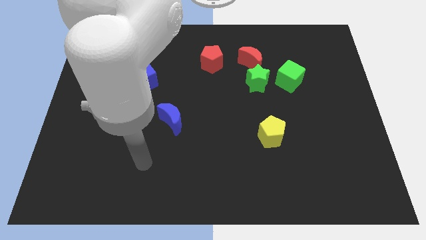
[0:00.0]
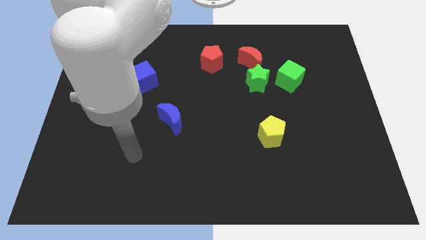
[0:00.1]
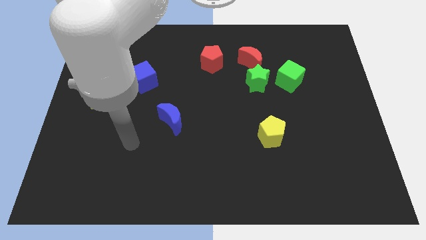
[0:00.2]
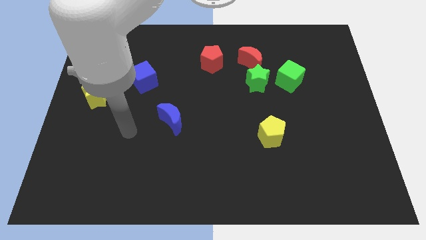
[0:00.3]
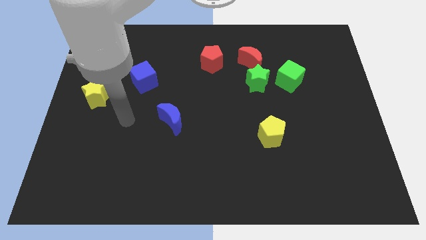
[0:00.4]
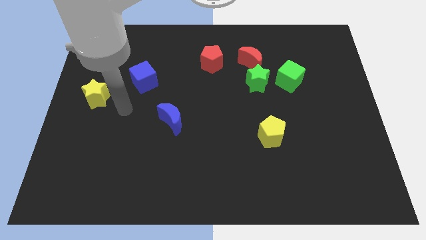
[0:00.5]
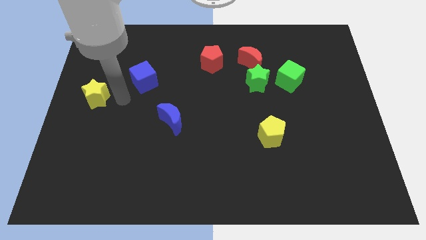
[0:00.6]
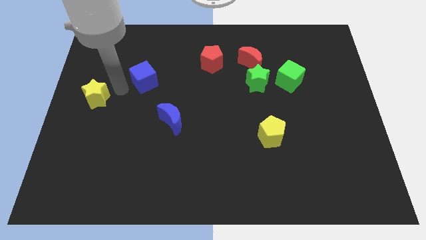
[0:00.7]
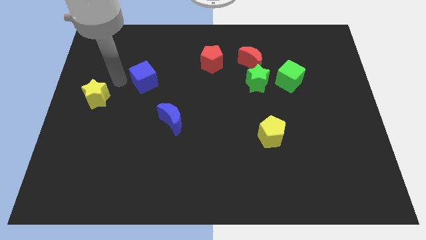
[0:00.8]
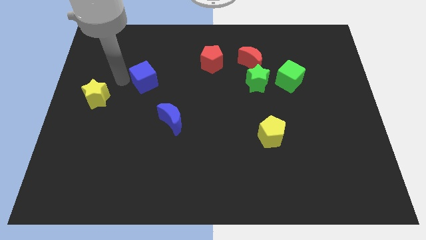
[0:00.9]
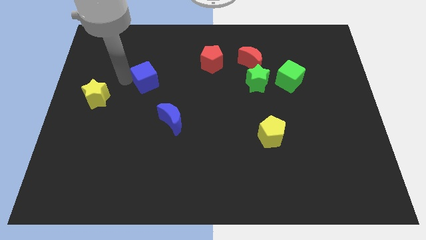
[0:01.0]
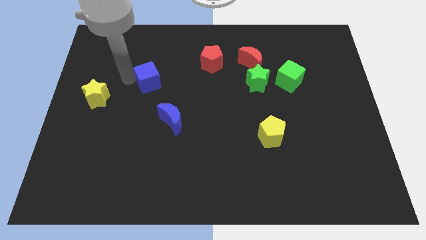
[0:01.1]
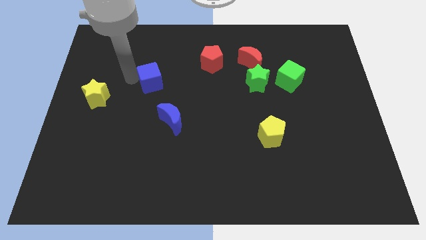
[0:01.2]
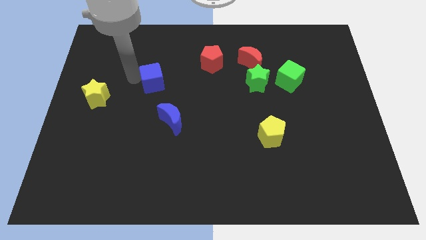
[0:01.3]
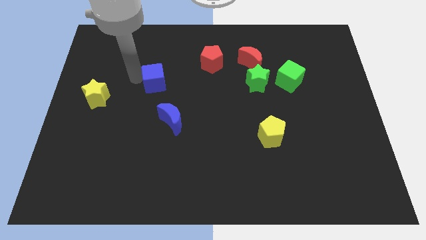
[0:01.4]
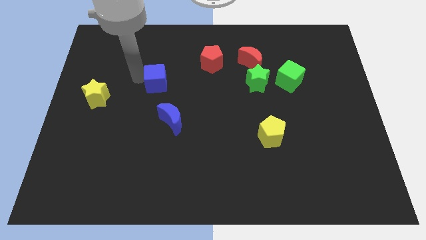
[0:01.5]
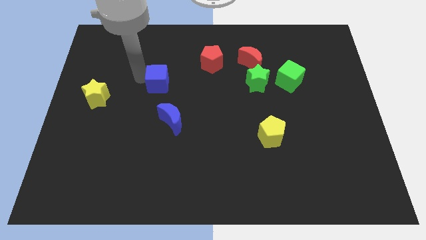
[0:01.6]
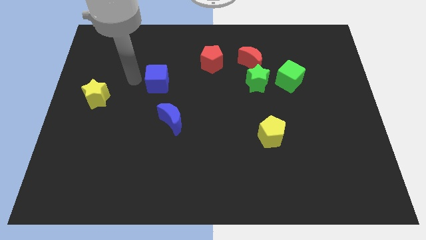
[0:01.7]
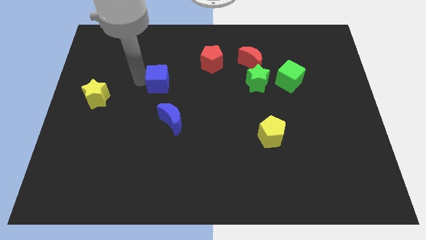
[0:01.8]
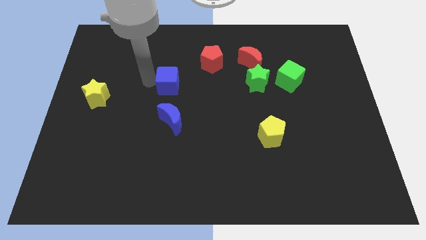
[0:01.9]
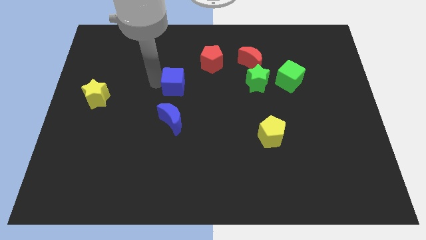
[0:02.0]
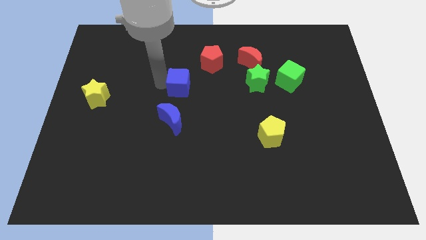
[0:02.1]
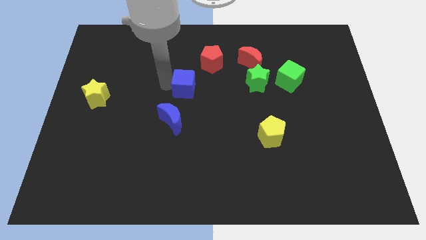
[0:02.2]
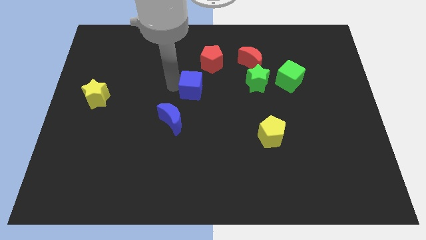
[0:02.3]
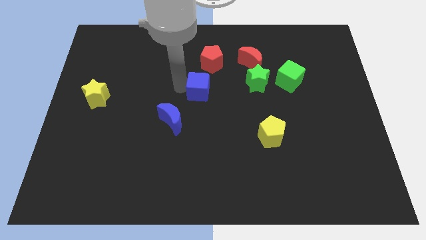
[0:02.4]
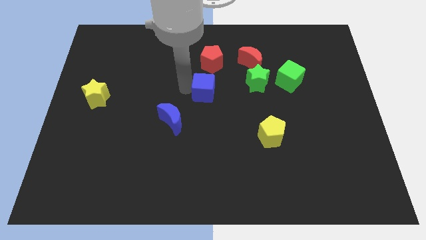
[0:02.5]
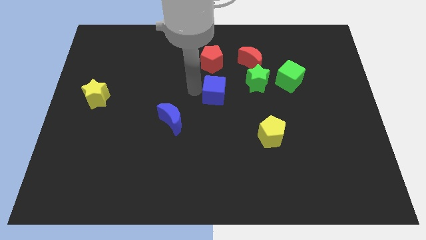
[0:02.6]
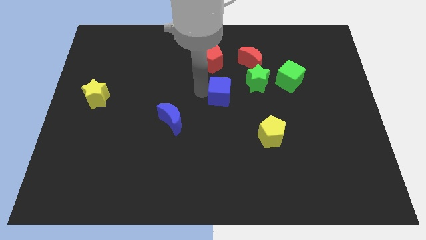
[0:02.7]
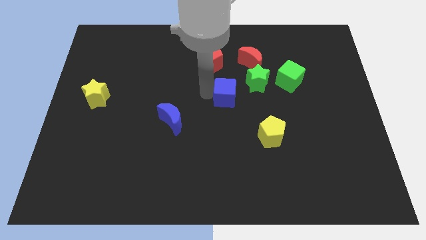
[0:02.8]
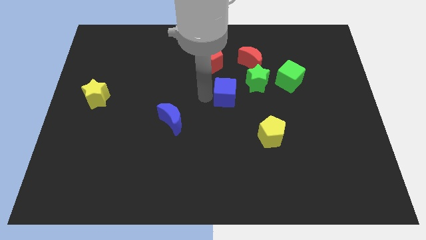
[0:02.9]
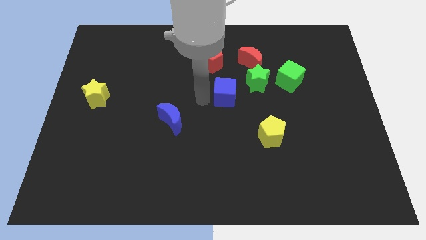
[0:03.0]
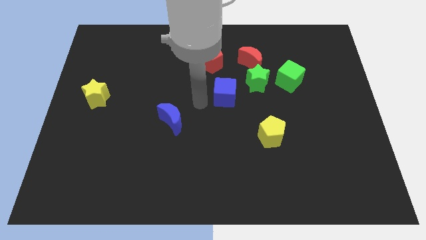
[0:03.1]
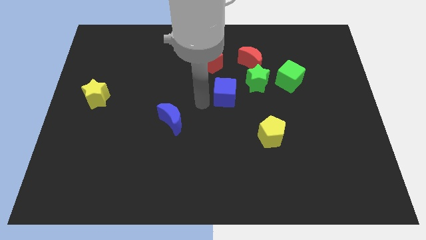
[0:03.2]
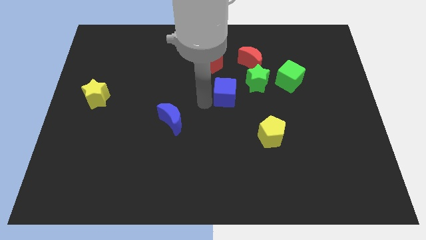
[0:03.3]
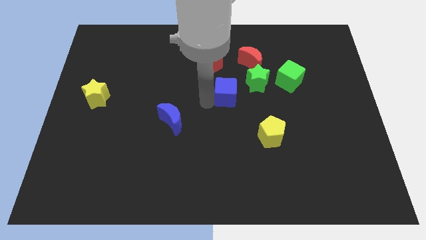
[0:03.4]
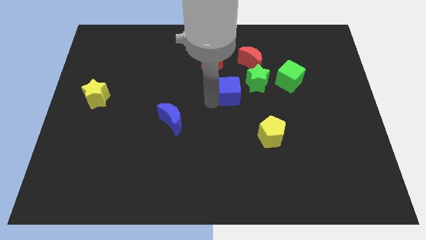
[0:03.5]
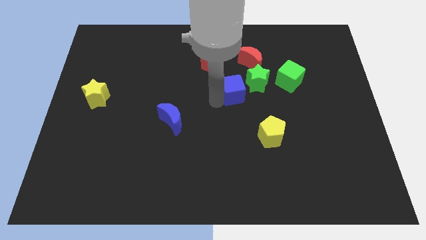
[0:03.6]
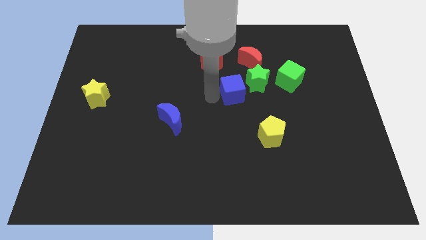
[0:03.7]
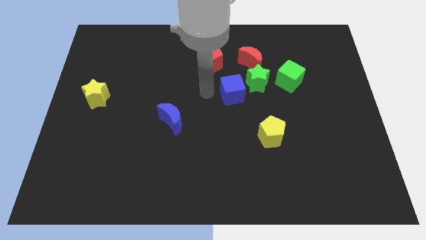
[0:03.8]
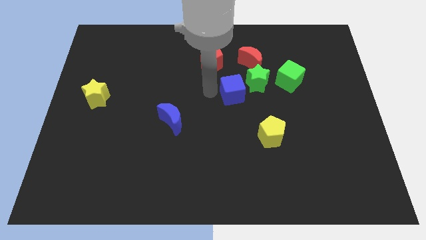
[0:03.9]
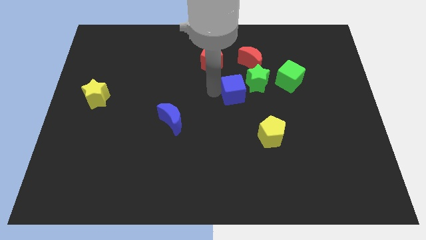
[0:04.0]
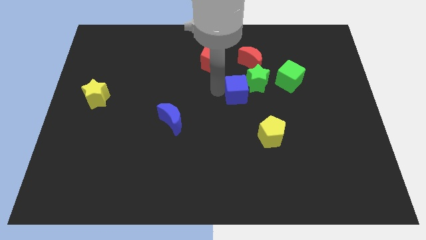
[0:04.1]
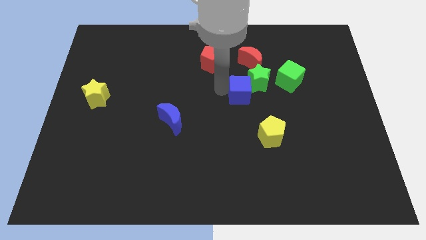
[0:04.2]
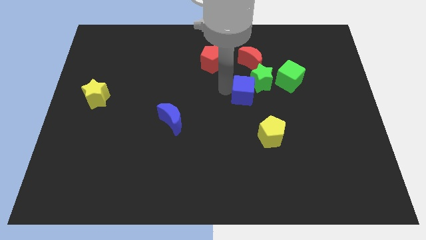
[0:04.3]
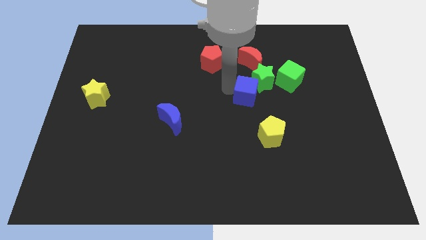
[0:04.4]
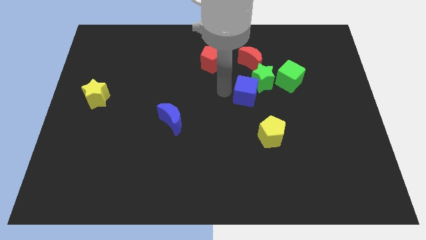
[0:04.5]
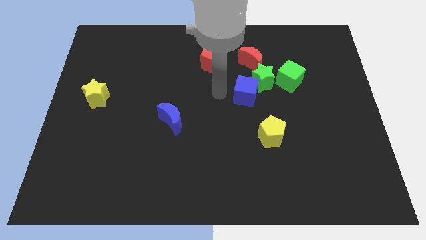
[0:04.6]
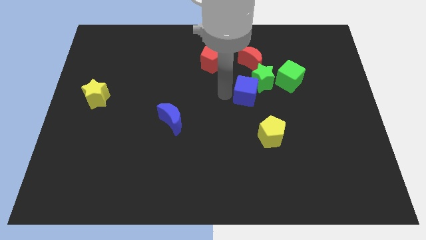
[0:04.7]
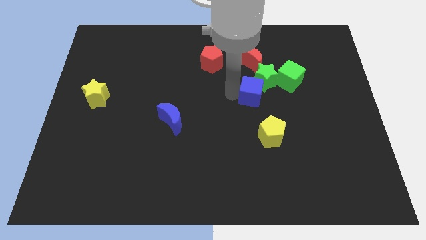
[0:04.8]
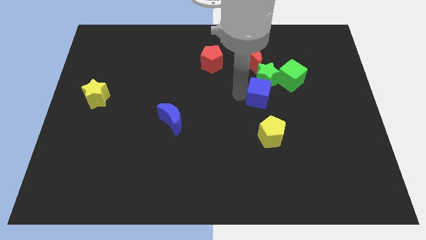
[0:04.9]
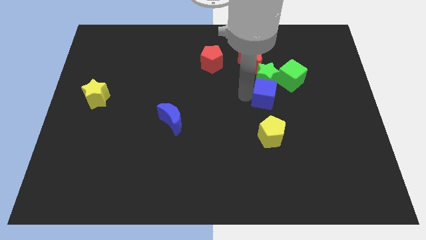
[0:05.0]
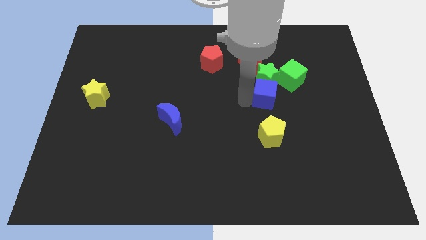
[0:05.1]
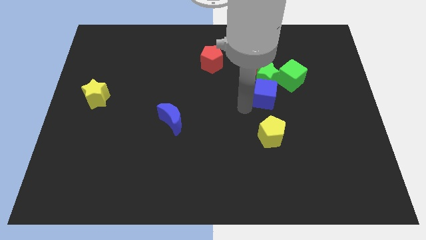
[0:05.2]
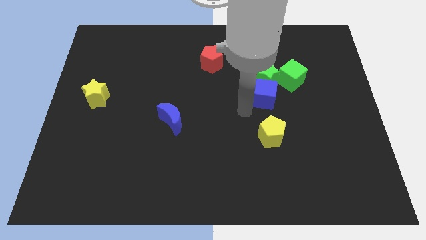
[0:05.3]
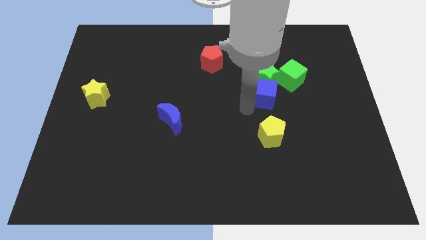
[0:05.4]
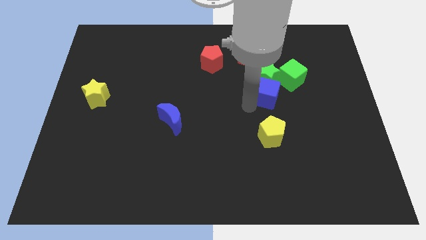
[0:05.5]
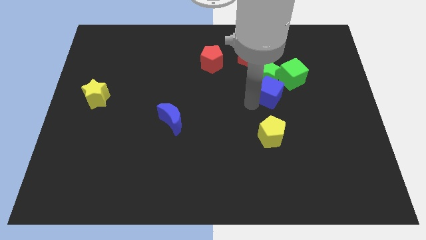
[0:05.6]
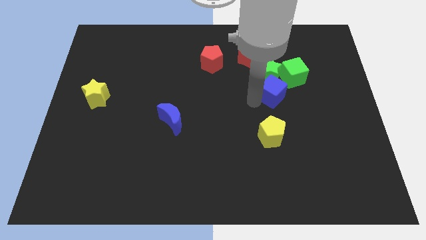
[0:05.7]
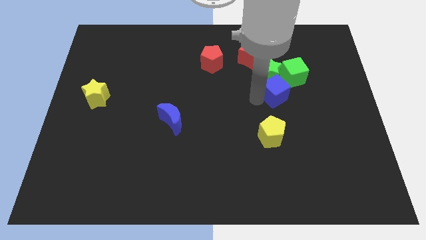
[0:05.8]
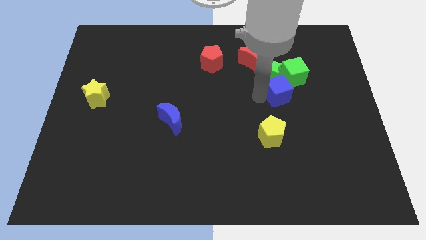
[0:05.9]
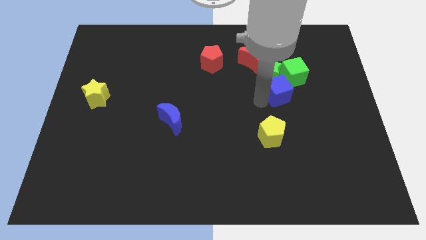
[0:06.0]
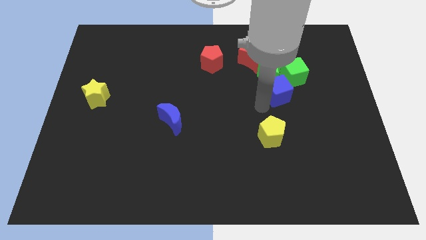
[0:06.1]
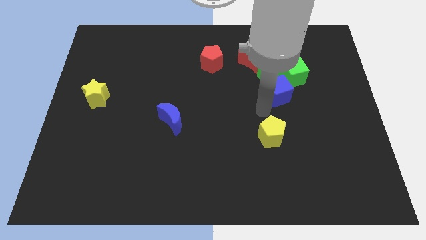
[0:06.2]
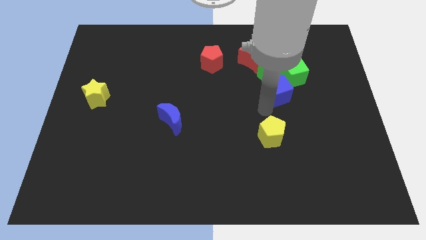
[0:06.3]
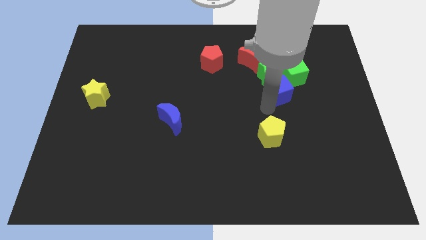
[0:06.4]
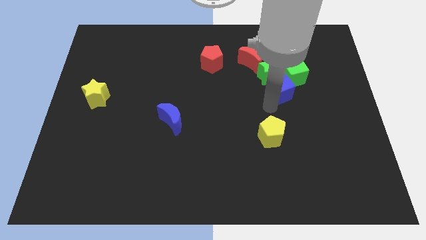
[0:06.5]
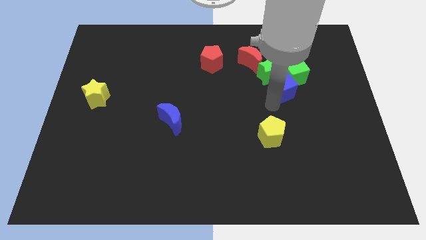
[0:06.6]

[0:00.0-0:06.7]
move the blue cube to the green cube
